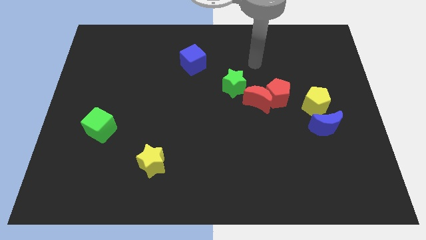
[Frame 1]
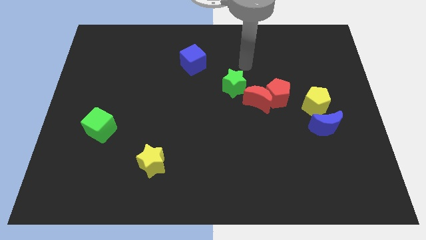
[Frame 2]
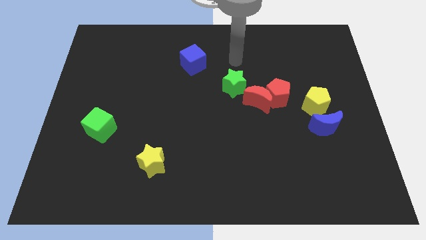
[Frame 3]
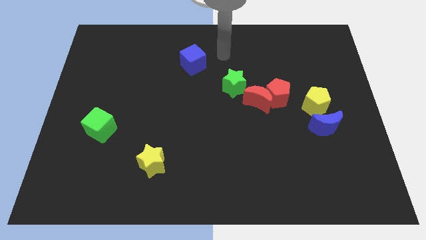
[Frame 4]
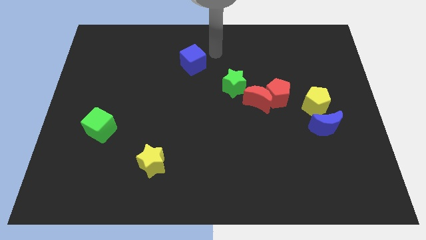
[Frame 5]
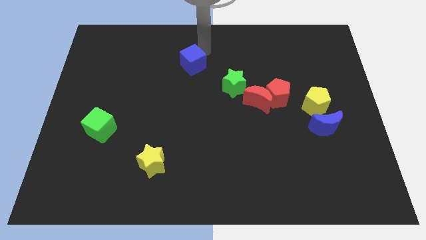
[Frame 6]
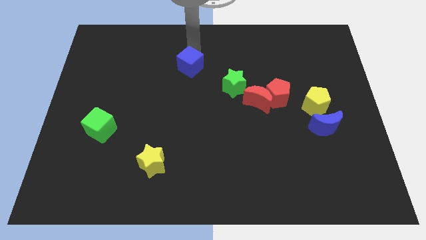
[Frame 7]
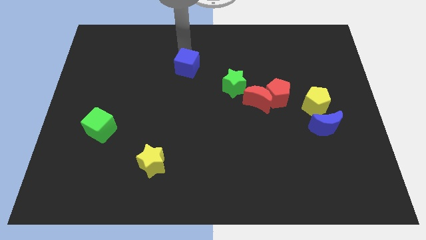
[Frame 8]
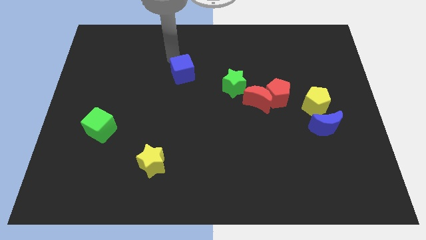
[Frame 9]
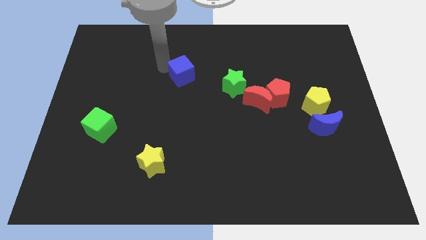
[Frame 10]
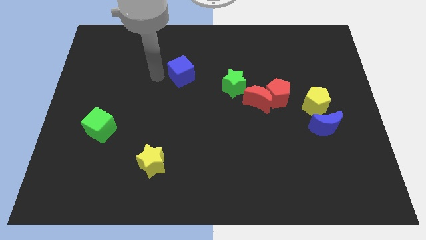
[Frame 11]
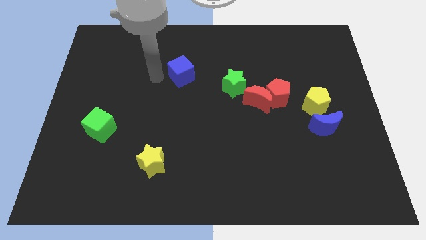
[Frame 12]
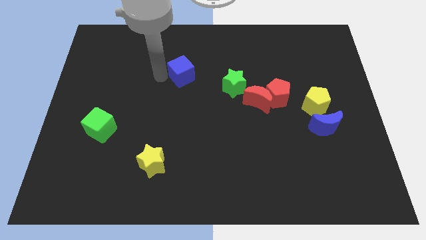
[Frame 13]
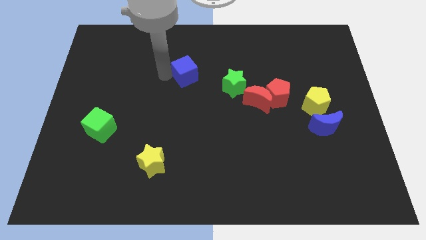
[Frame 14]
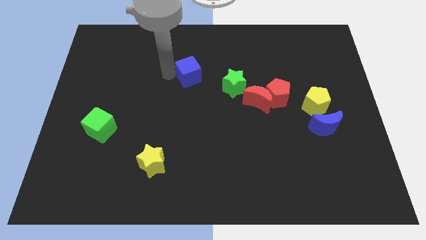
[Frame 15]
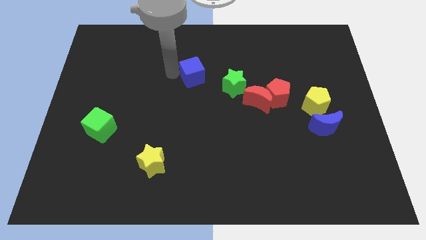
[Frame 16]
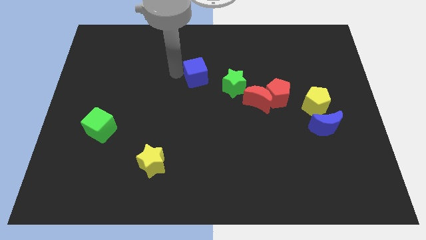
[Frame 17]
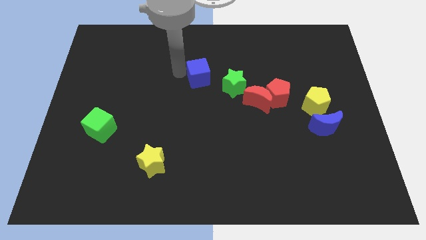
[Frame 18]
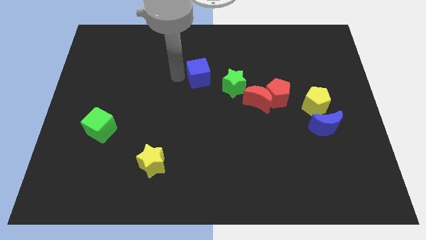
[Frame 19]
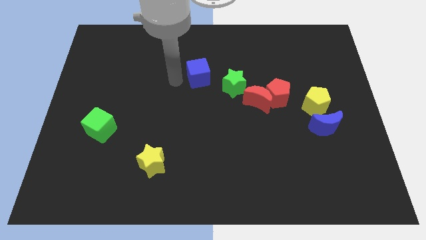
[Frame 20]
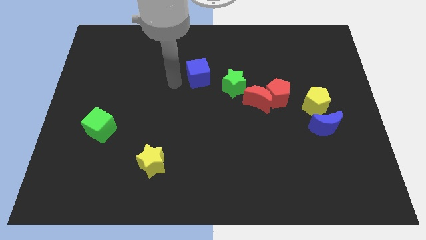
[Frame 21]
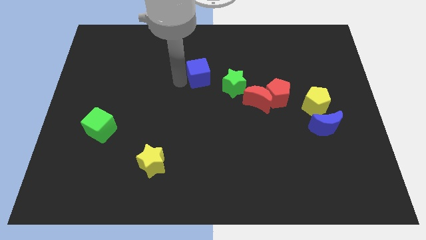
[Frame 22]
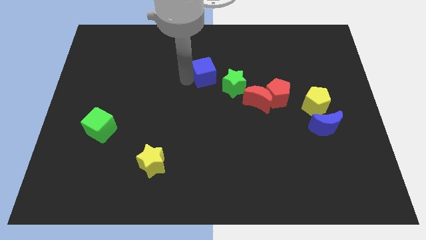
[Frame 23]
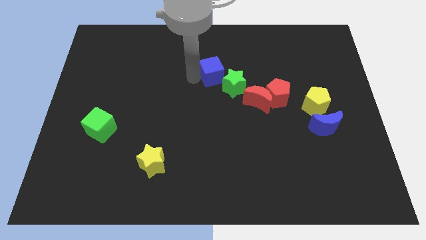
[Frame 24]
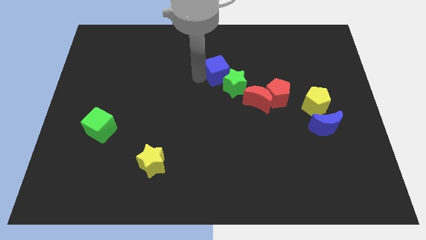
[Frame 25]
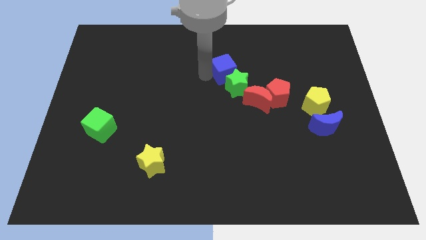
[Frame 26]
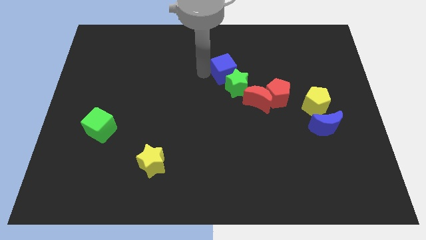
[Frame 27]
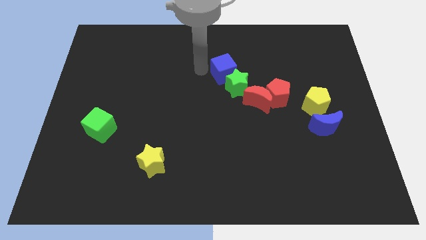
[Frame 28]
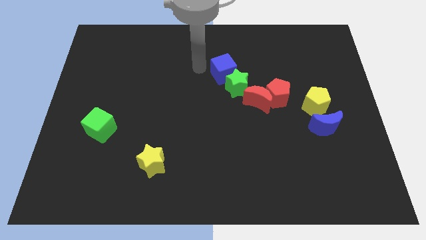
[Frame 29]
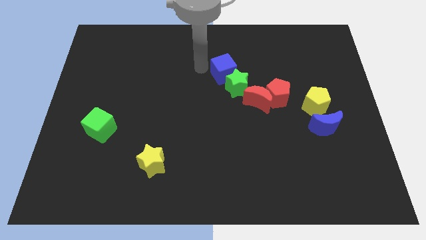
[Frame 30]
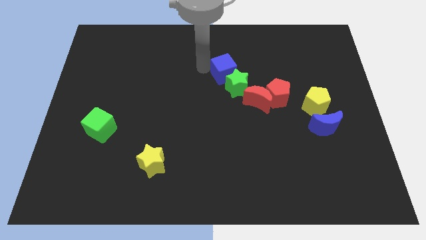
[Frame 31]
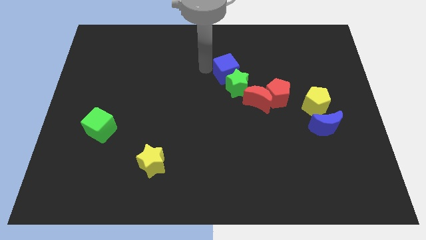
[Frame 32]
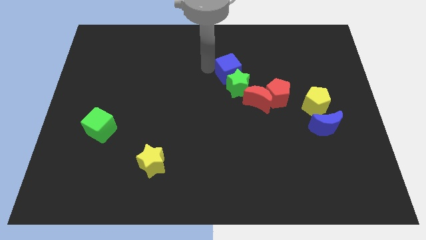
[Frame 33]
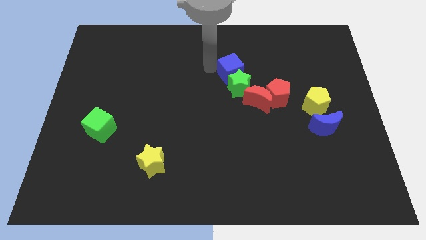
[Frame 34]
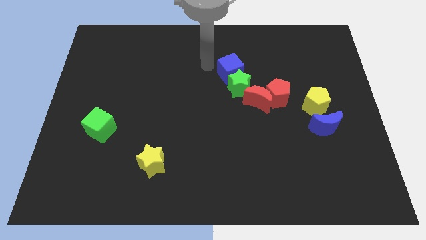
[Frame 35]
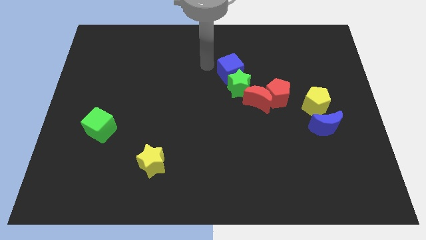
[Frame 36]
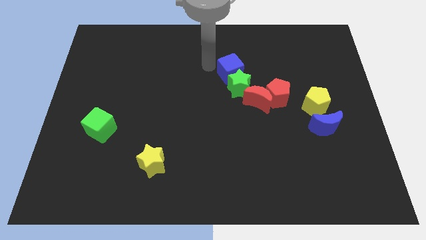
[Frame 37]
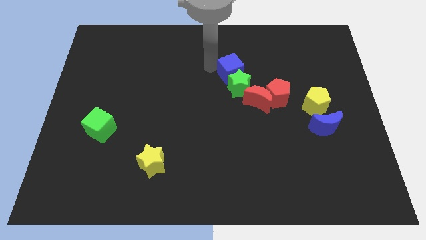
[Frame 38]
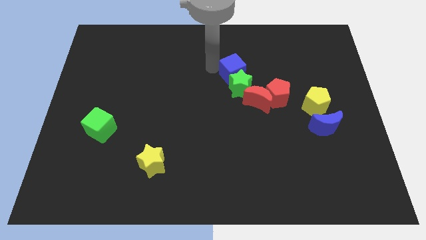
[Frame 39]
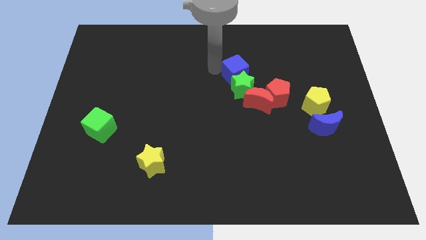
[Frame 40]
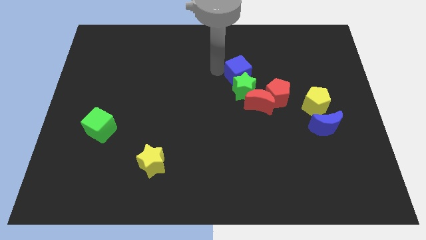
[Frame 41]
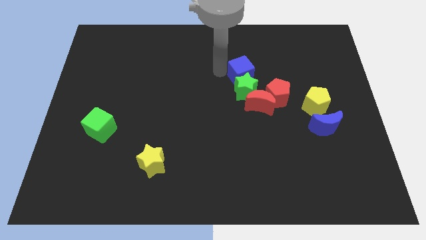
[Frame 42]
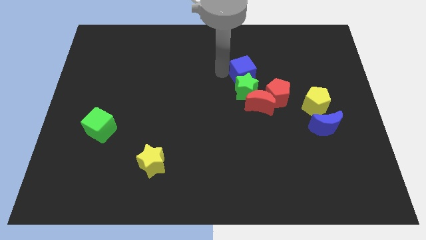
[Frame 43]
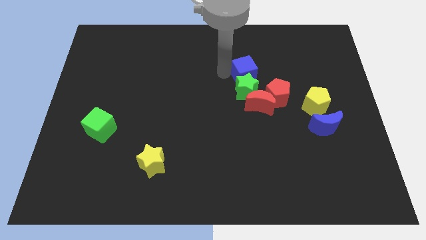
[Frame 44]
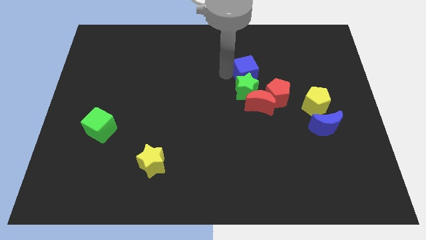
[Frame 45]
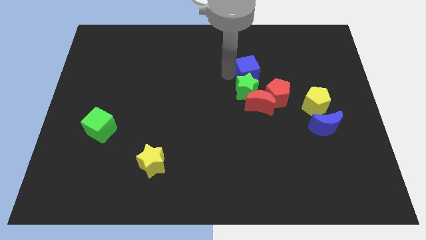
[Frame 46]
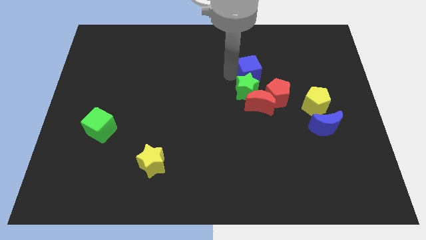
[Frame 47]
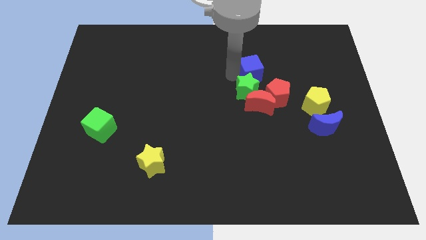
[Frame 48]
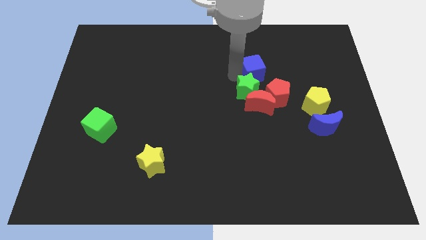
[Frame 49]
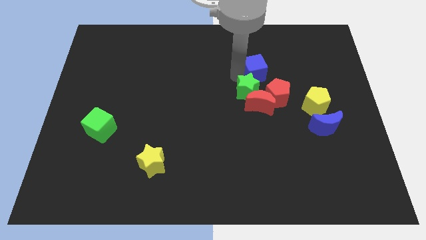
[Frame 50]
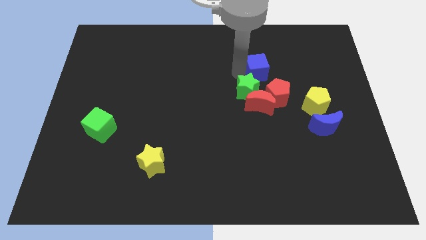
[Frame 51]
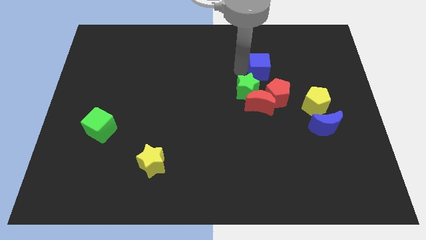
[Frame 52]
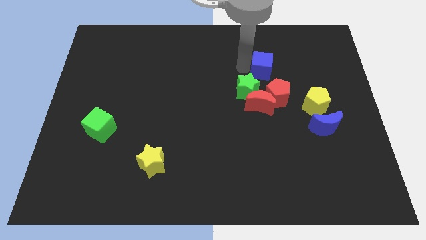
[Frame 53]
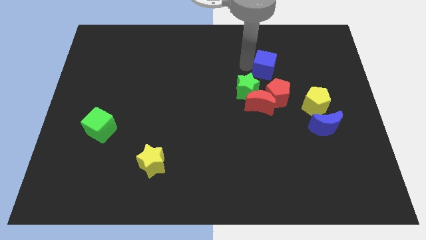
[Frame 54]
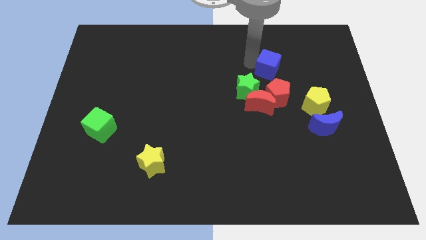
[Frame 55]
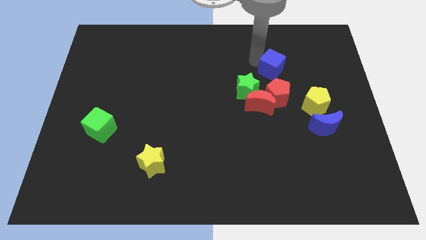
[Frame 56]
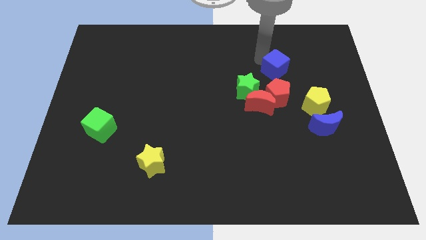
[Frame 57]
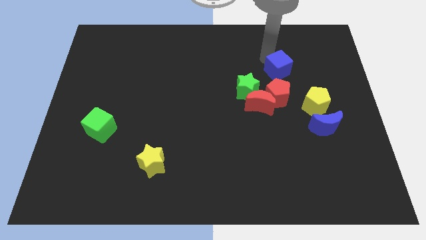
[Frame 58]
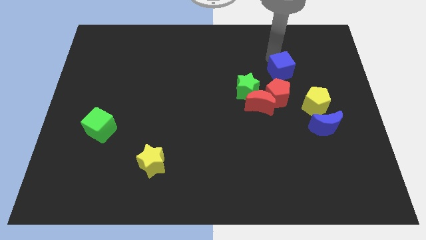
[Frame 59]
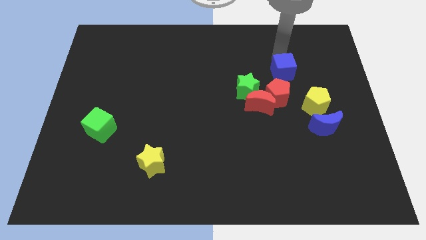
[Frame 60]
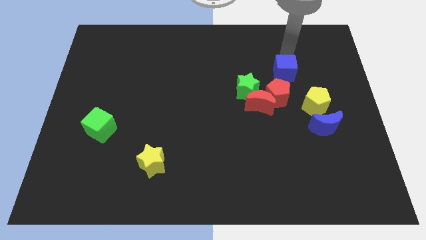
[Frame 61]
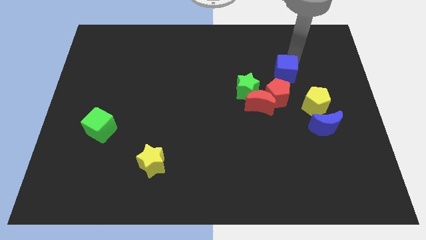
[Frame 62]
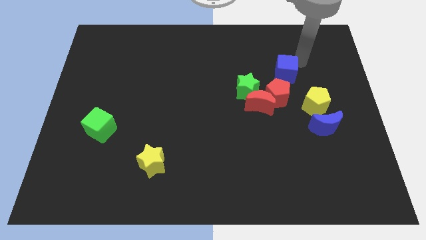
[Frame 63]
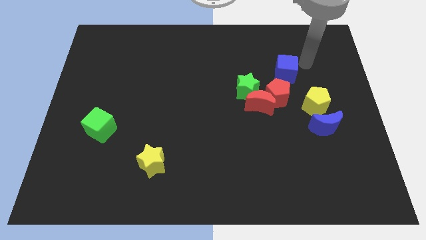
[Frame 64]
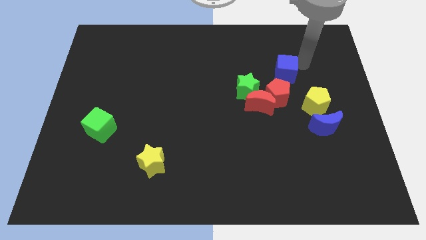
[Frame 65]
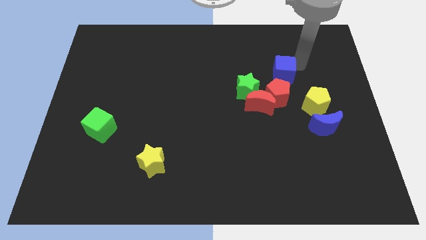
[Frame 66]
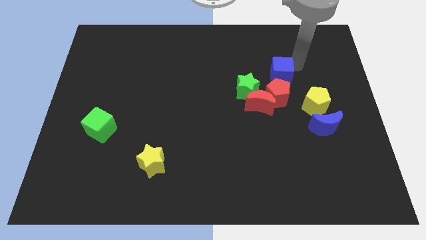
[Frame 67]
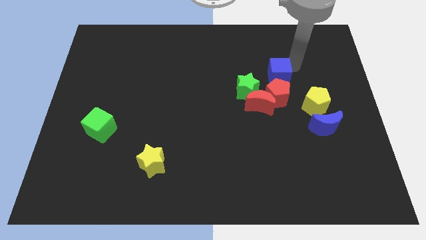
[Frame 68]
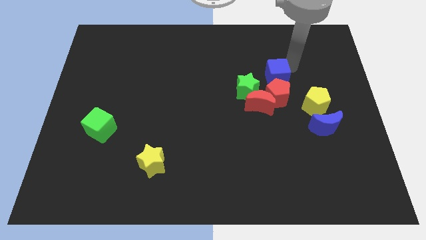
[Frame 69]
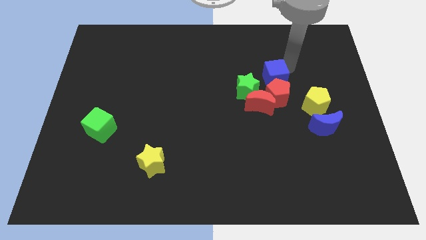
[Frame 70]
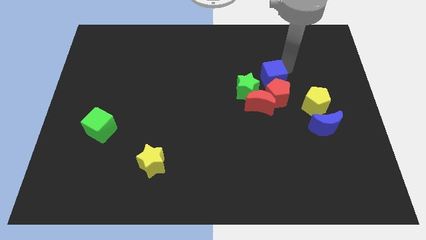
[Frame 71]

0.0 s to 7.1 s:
slide the blue cube next to the red pentagon
